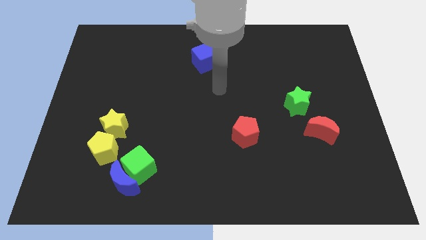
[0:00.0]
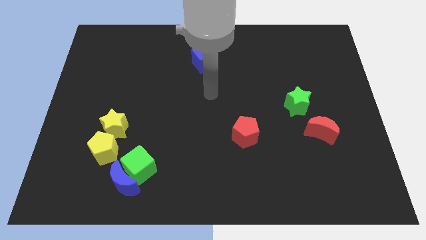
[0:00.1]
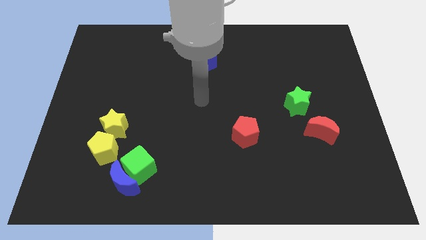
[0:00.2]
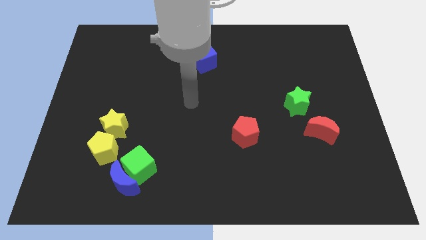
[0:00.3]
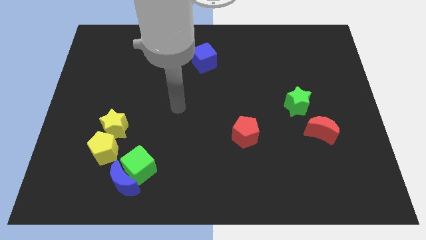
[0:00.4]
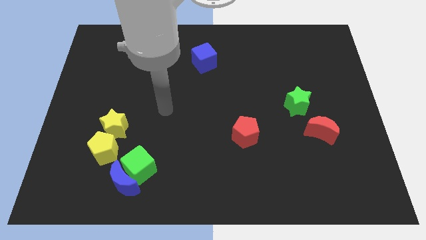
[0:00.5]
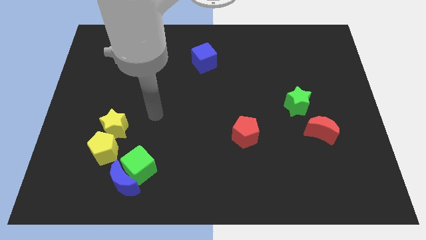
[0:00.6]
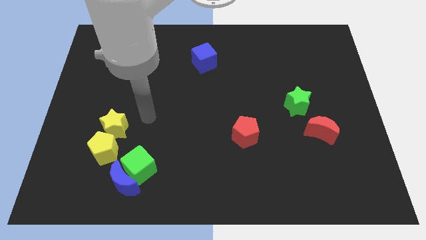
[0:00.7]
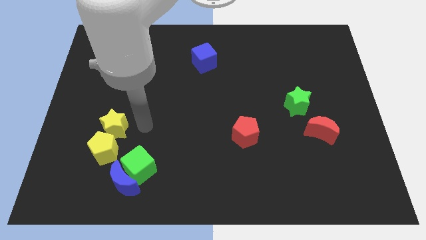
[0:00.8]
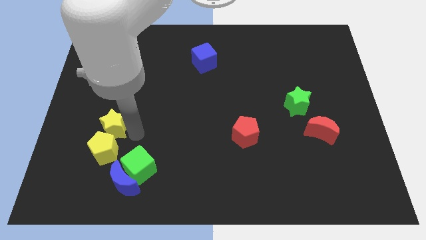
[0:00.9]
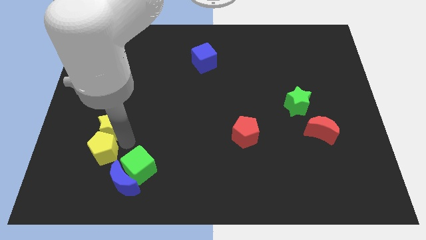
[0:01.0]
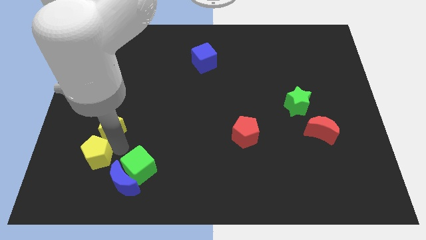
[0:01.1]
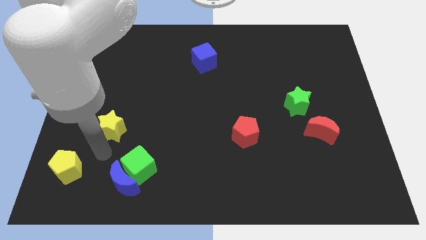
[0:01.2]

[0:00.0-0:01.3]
separate the yellow star from the yellow pentagon

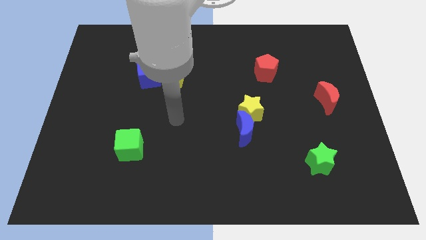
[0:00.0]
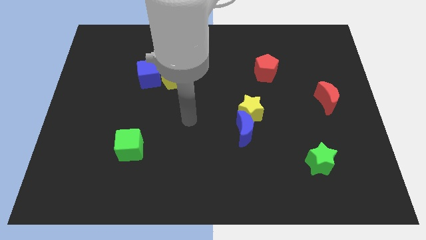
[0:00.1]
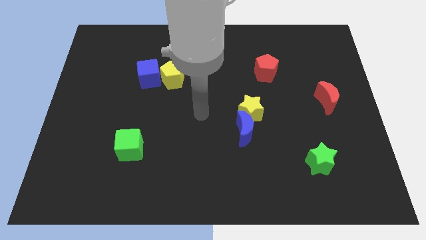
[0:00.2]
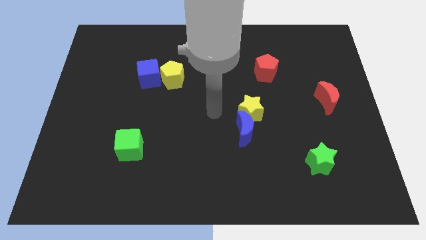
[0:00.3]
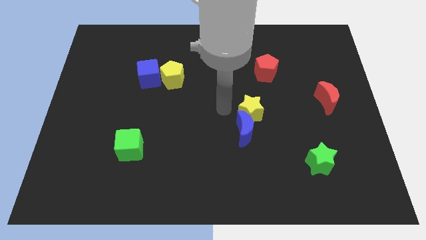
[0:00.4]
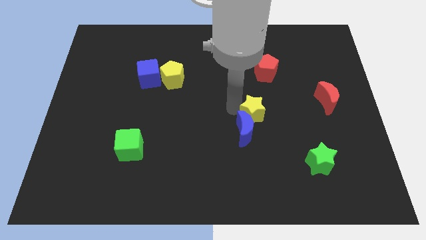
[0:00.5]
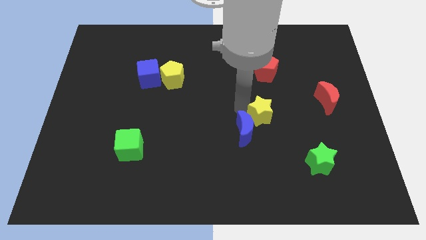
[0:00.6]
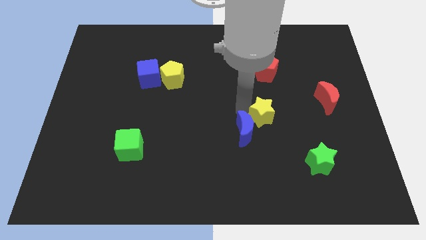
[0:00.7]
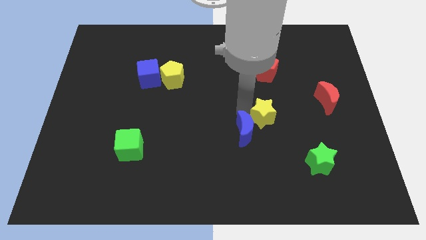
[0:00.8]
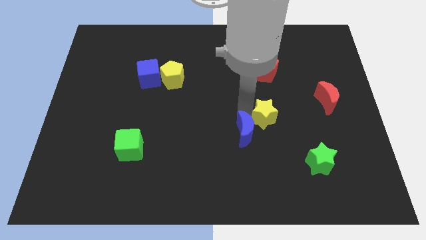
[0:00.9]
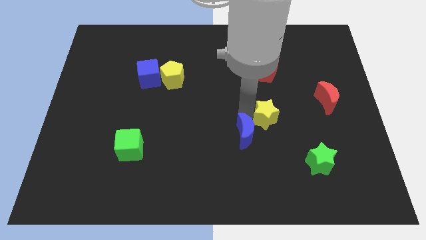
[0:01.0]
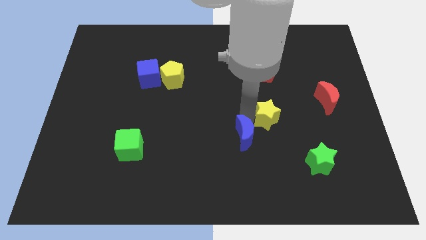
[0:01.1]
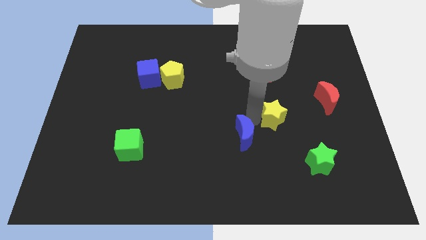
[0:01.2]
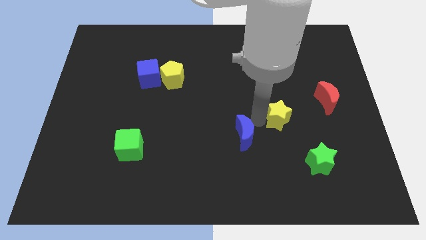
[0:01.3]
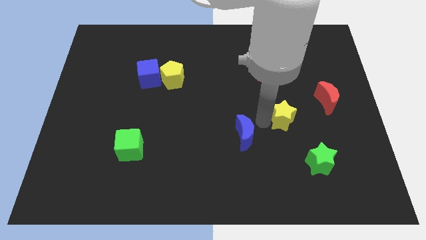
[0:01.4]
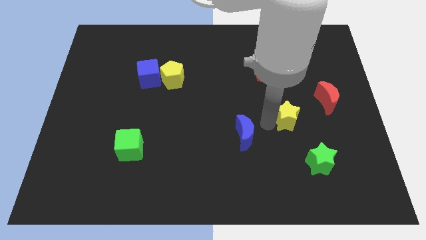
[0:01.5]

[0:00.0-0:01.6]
separate the blue moon from the yellow star

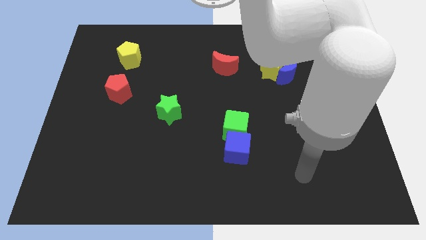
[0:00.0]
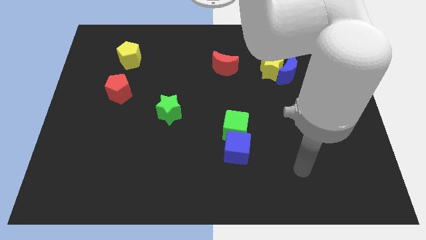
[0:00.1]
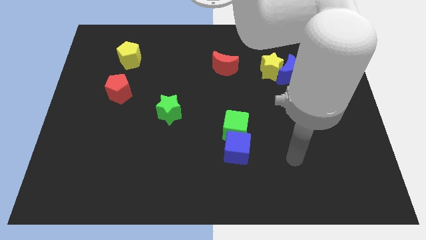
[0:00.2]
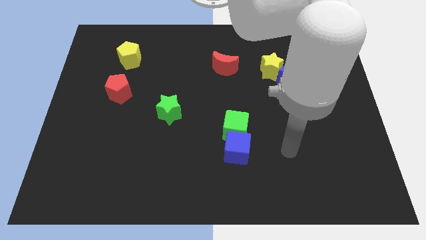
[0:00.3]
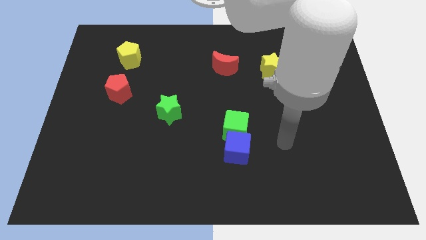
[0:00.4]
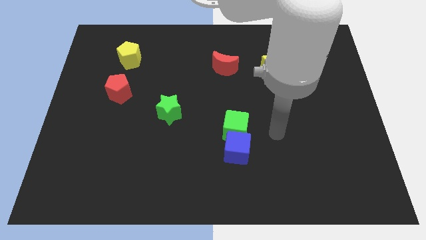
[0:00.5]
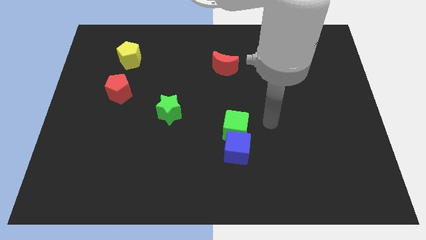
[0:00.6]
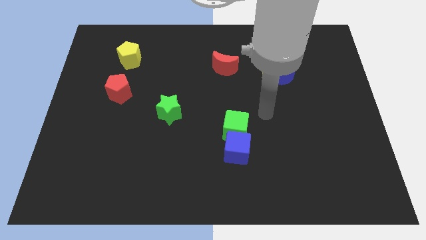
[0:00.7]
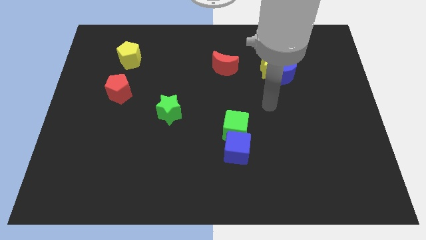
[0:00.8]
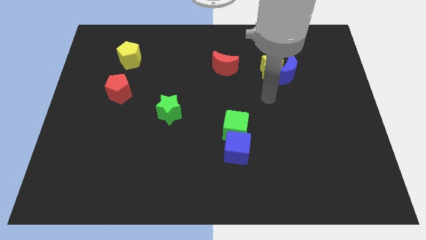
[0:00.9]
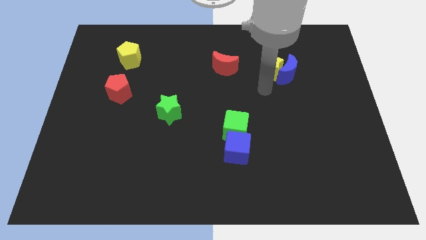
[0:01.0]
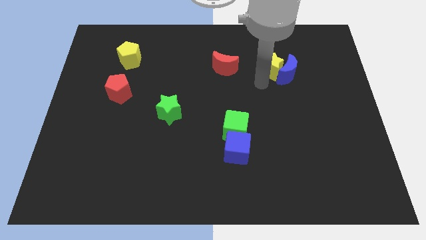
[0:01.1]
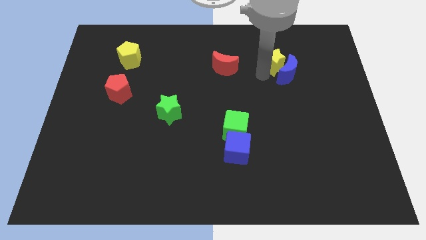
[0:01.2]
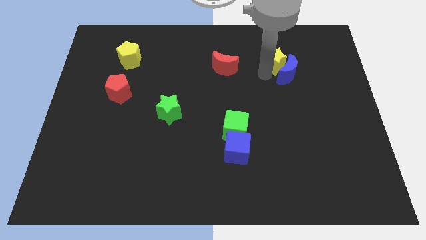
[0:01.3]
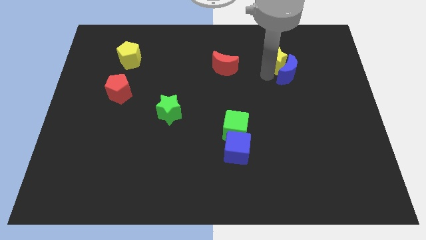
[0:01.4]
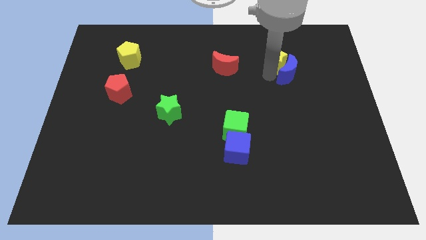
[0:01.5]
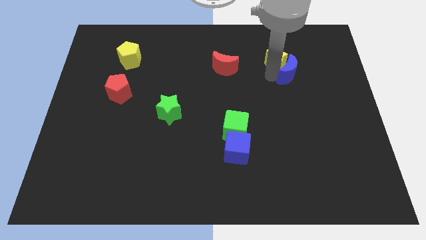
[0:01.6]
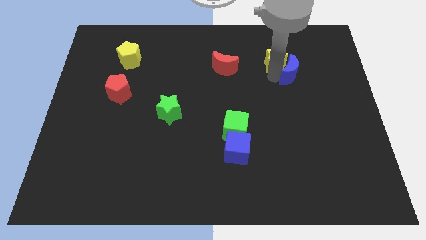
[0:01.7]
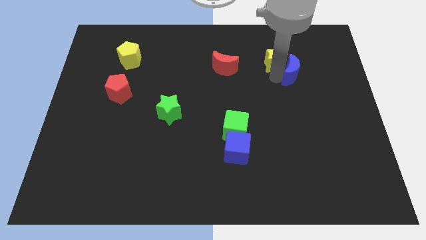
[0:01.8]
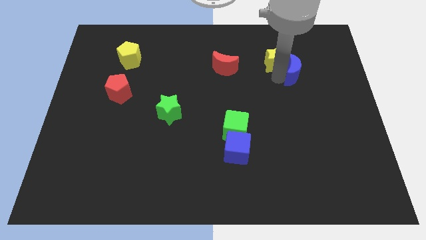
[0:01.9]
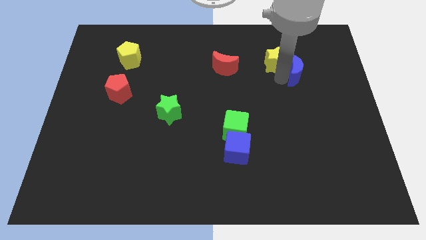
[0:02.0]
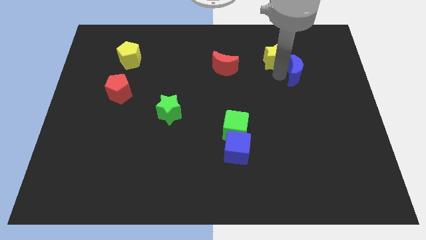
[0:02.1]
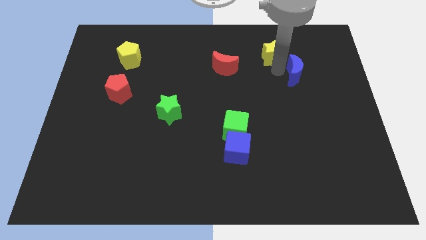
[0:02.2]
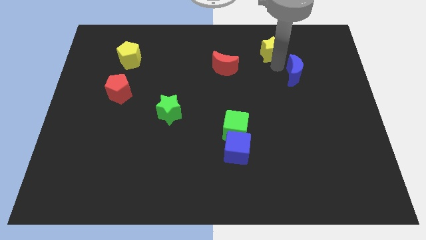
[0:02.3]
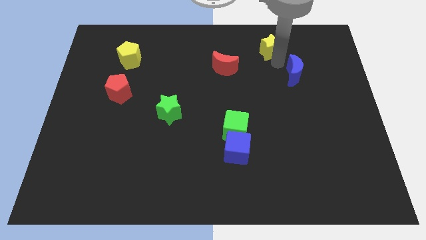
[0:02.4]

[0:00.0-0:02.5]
move the blue moon away from the yellow star

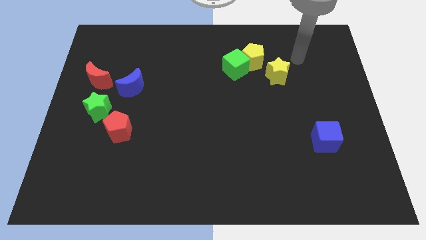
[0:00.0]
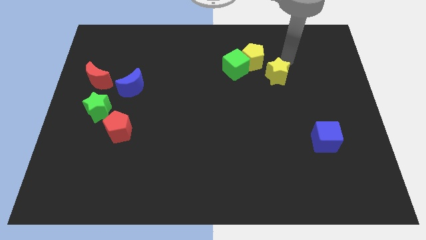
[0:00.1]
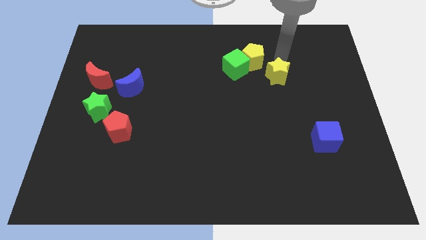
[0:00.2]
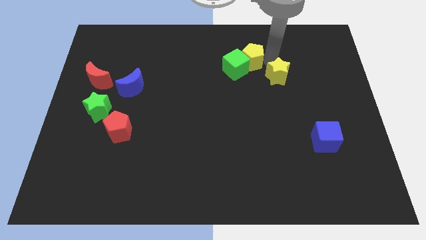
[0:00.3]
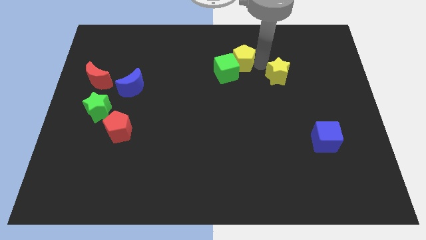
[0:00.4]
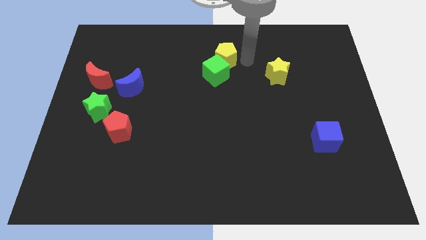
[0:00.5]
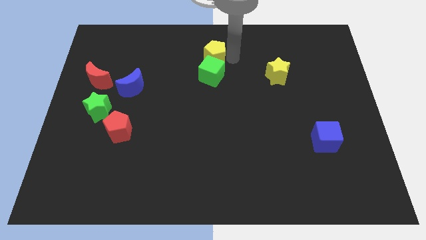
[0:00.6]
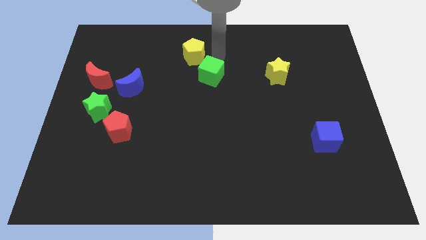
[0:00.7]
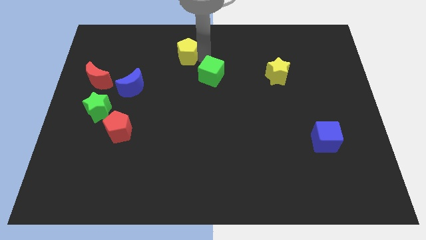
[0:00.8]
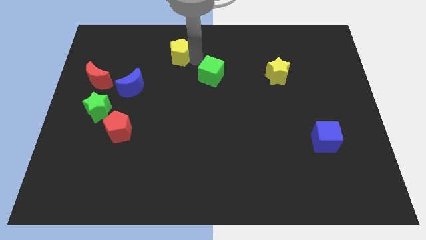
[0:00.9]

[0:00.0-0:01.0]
pull the green cube apart from the yellow pentagon

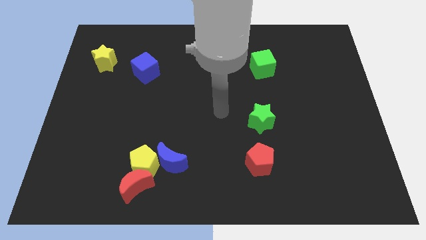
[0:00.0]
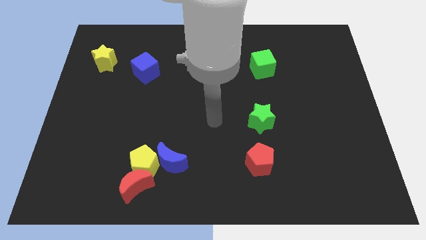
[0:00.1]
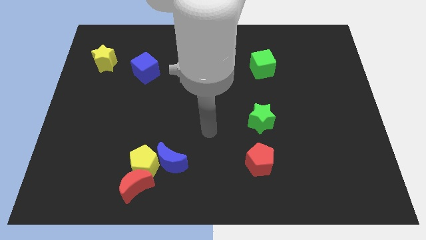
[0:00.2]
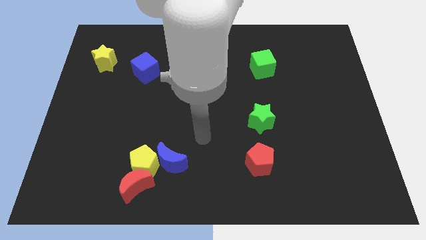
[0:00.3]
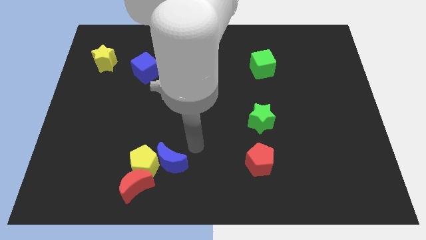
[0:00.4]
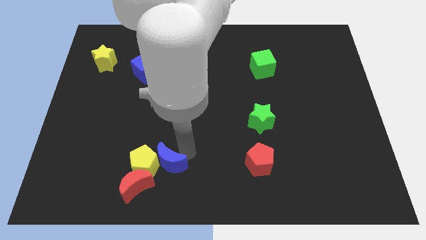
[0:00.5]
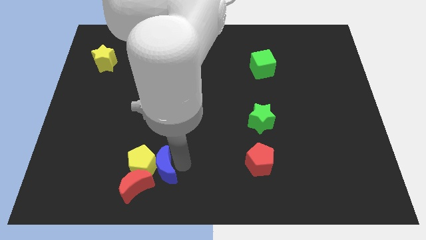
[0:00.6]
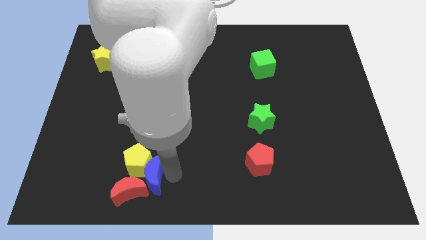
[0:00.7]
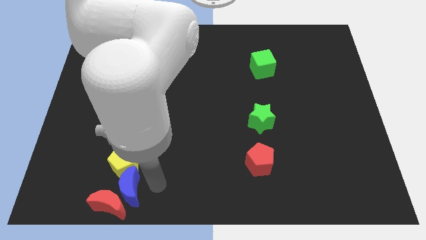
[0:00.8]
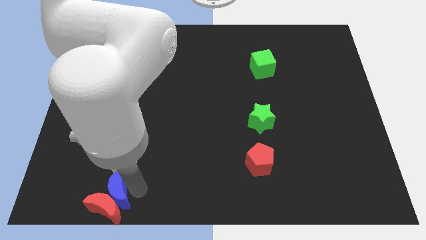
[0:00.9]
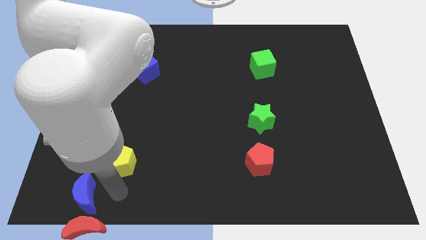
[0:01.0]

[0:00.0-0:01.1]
move the yellow pentagon away from the red moon and blue moon

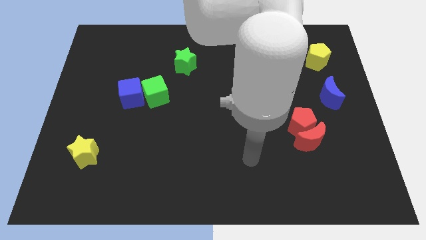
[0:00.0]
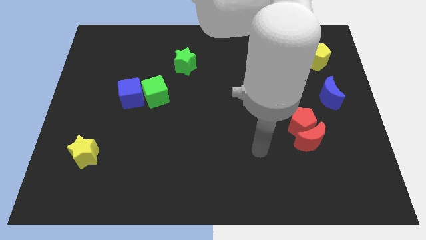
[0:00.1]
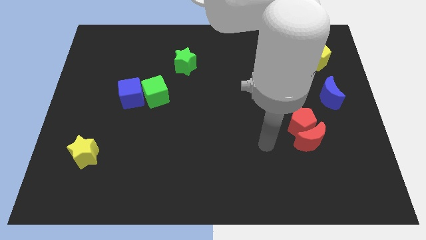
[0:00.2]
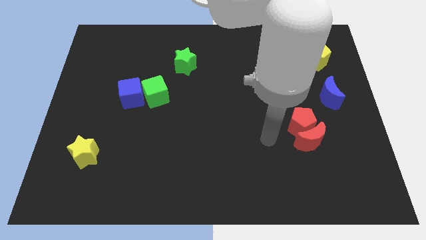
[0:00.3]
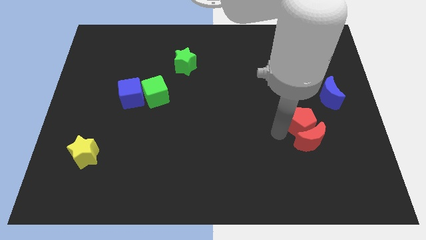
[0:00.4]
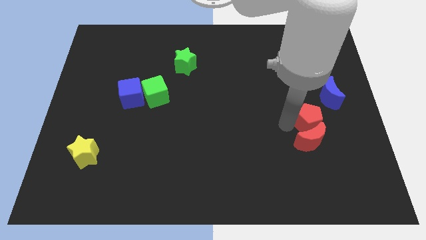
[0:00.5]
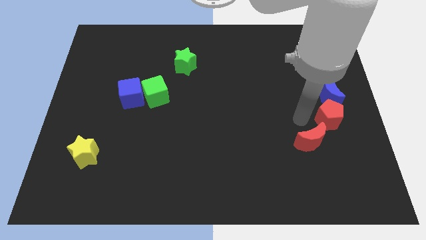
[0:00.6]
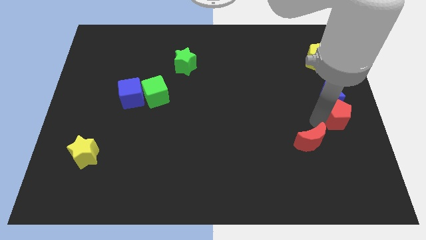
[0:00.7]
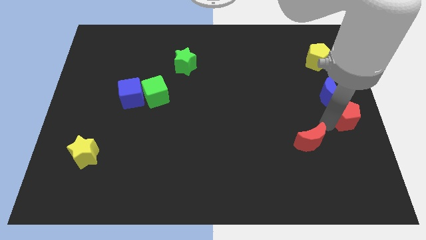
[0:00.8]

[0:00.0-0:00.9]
separate the red moon from the red pentagon

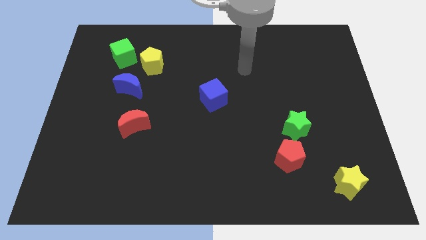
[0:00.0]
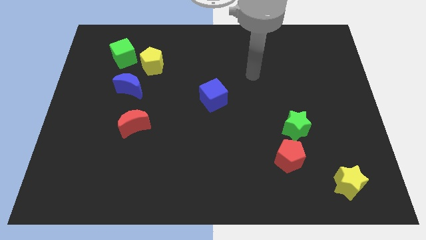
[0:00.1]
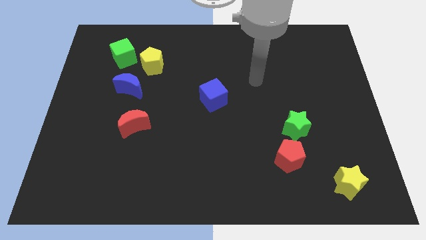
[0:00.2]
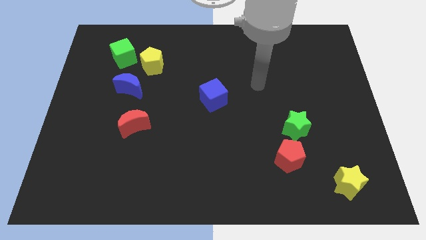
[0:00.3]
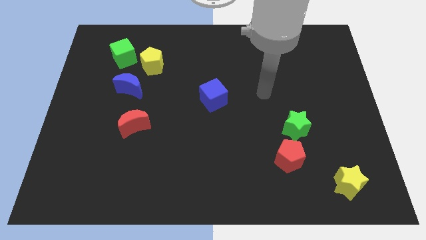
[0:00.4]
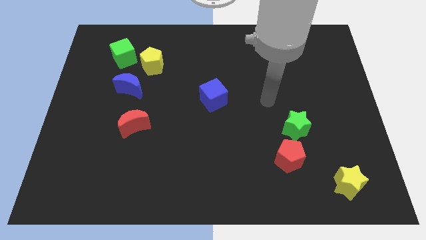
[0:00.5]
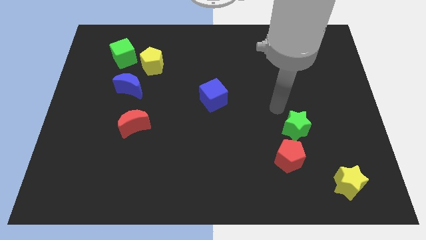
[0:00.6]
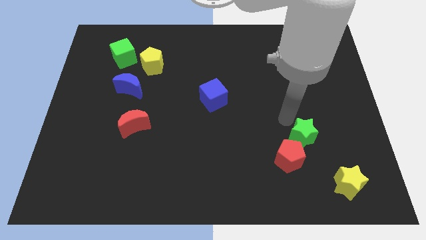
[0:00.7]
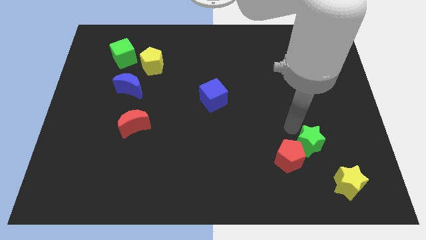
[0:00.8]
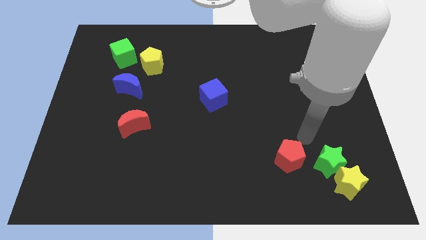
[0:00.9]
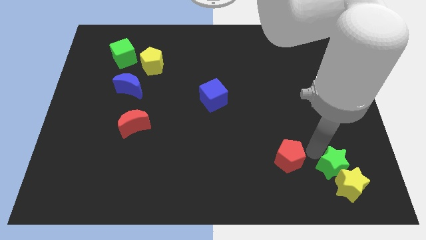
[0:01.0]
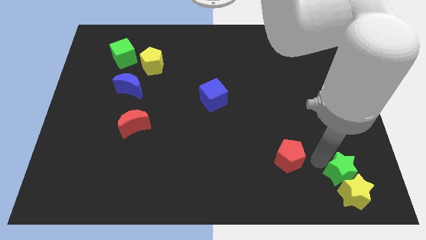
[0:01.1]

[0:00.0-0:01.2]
separate the red pentagon from the green star
